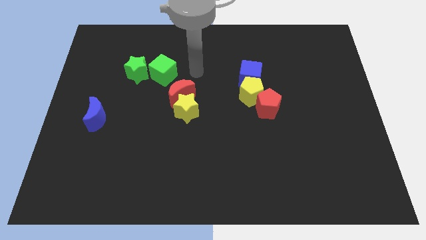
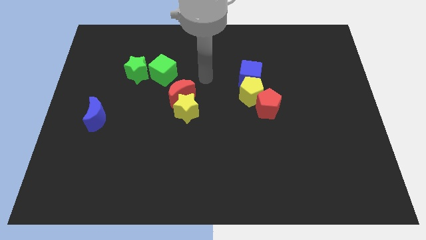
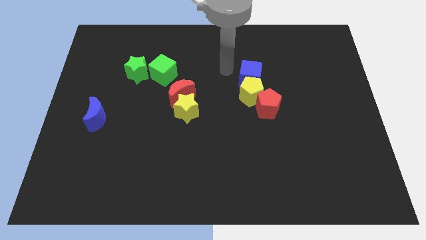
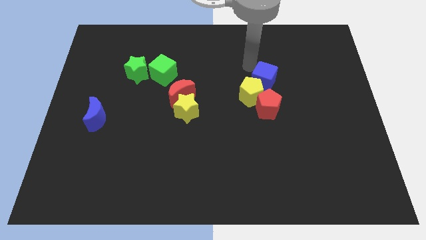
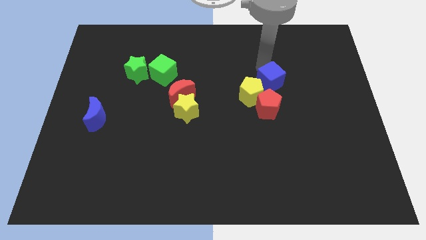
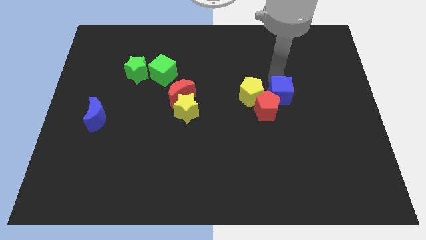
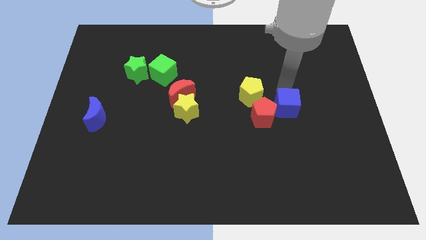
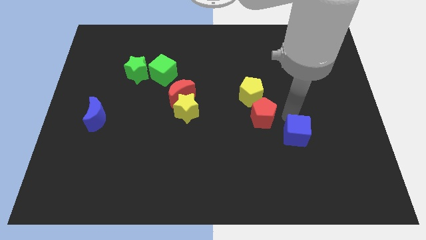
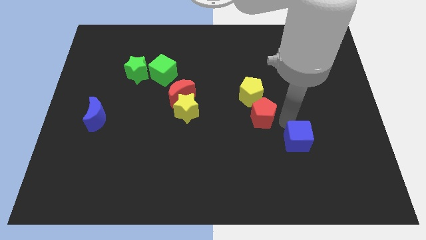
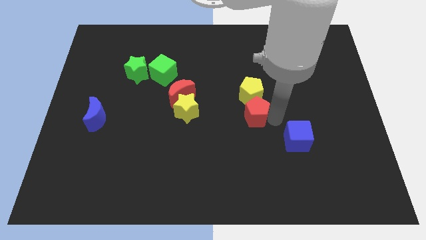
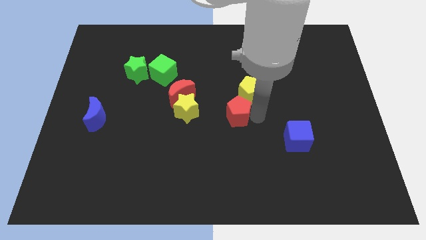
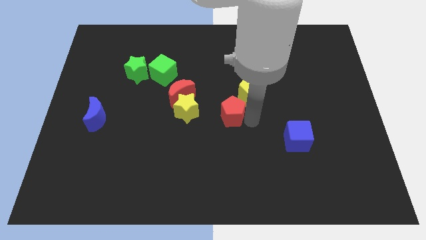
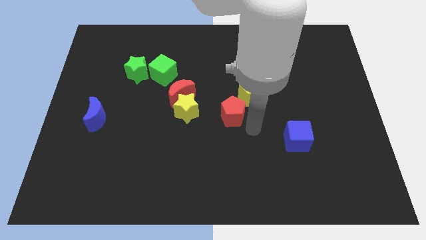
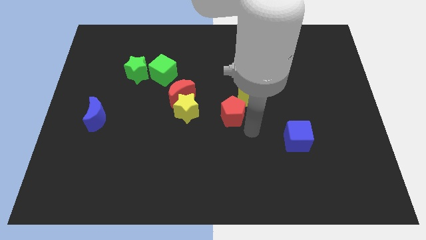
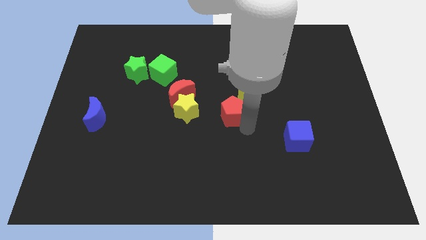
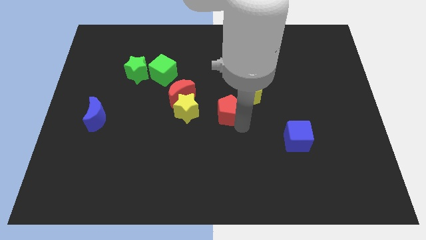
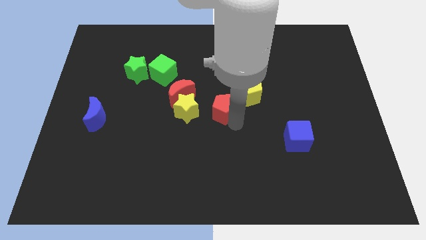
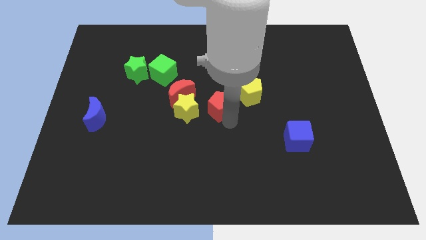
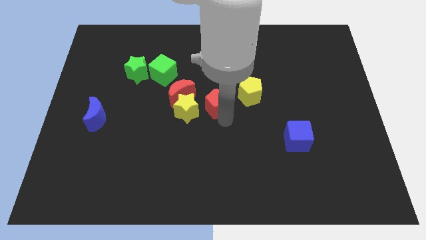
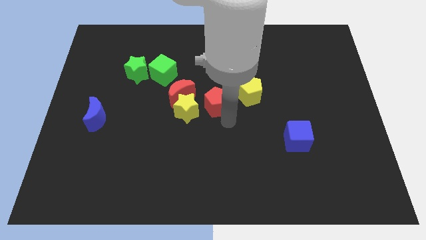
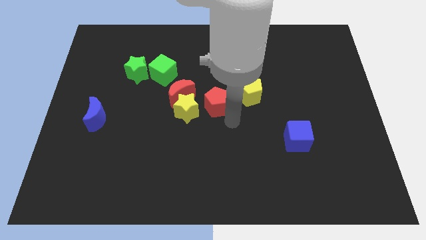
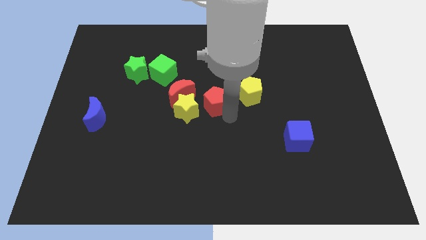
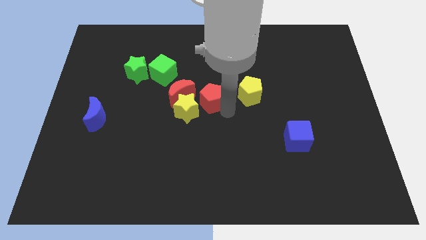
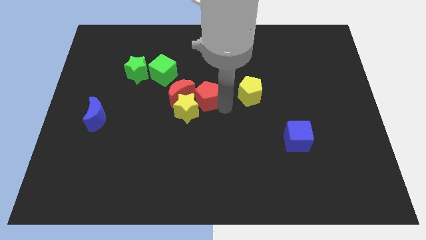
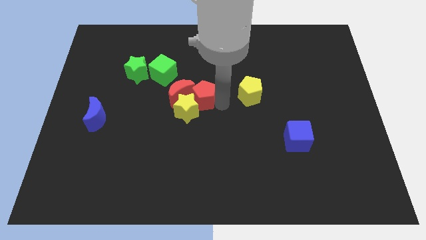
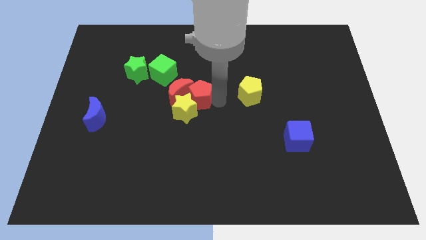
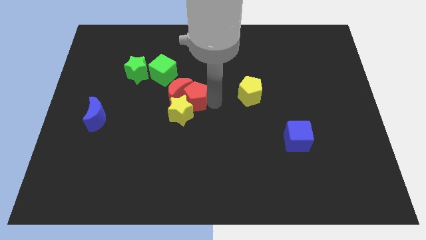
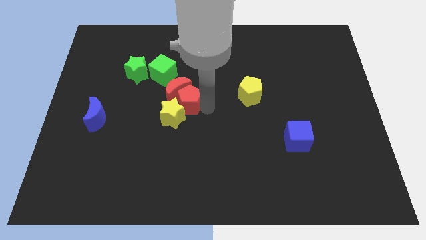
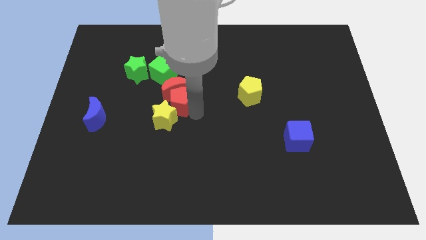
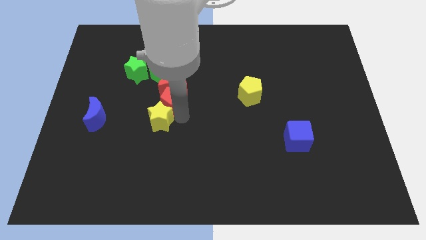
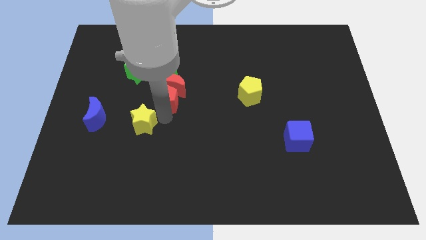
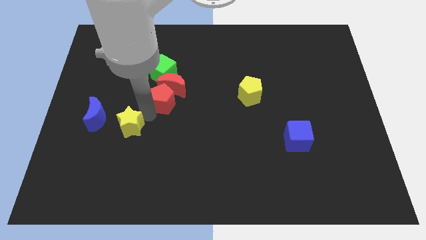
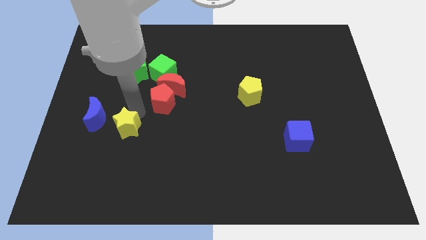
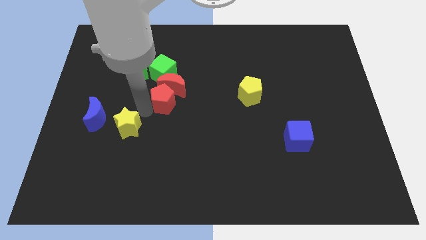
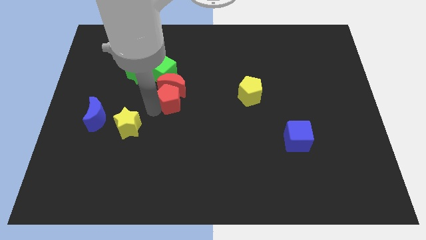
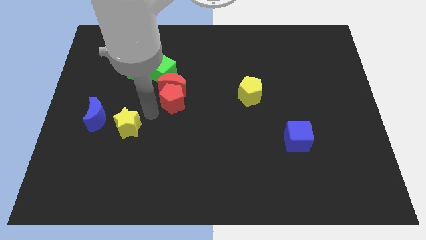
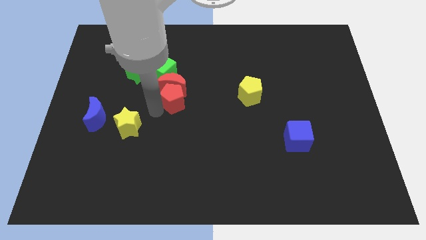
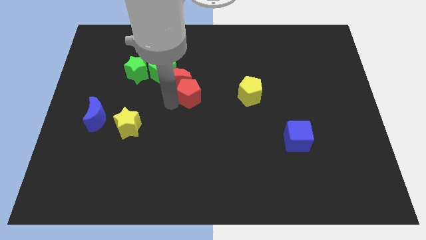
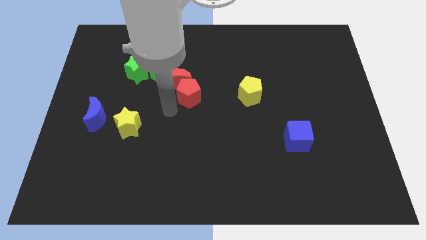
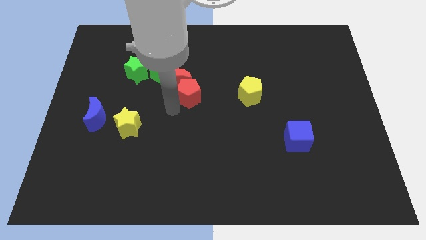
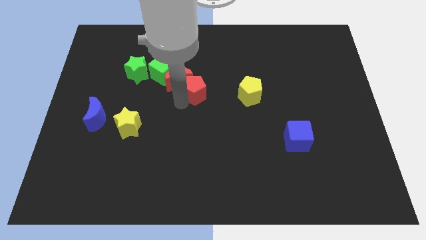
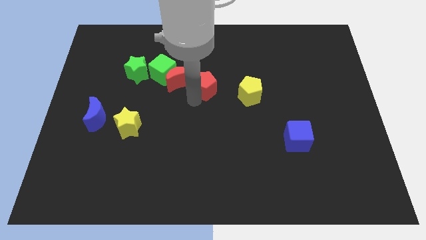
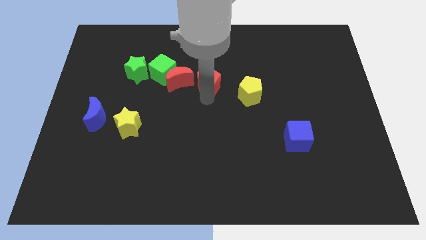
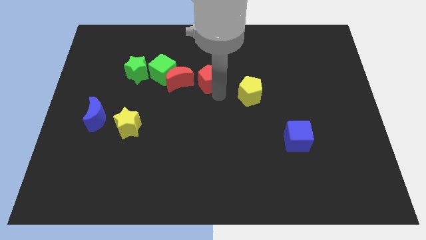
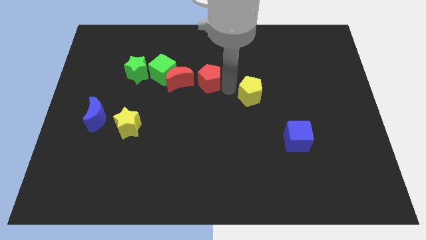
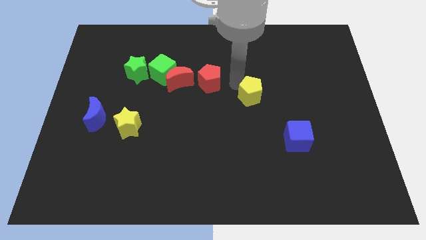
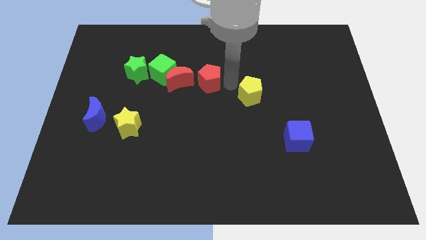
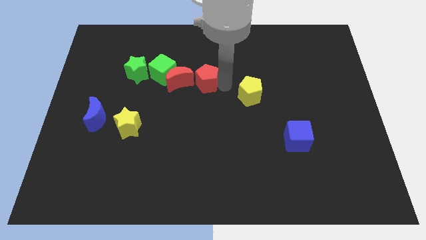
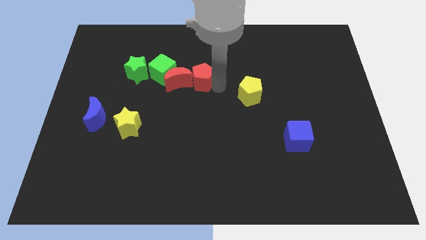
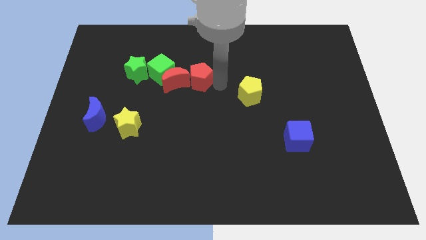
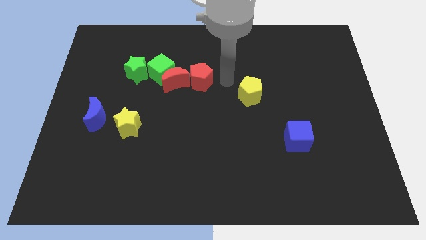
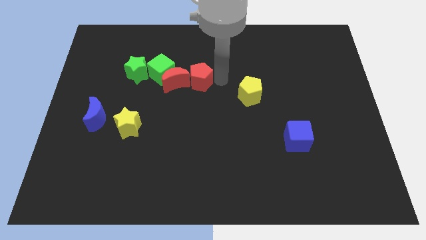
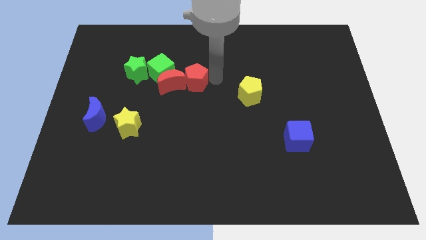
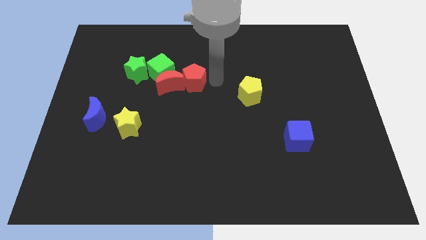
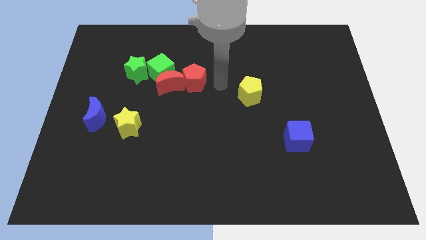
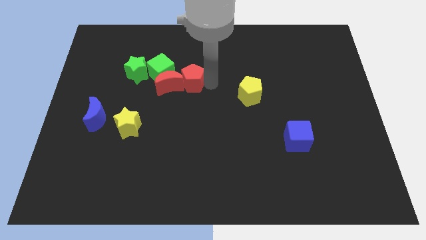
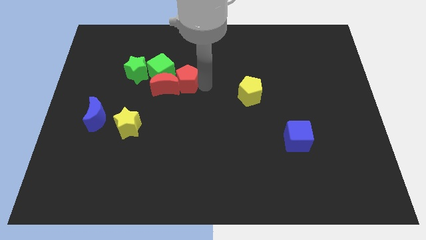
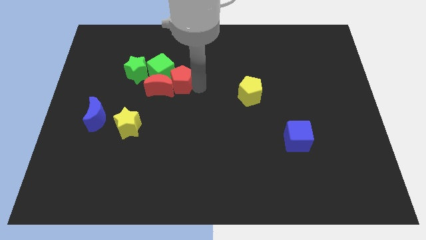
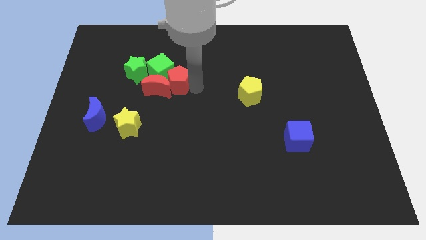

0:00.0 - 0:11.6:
push the red pentagon next to the green cube

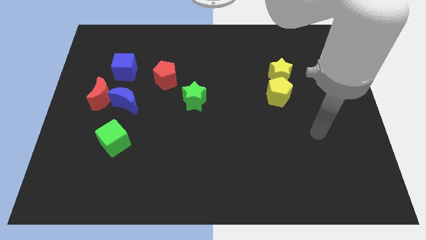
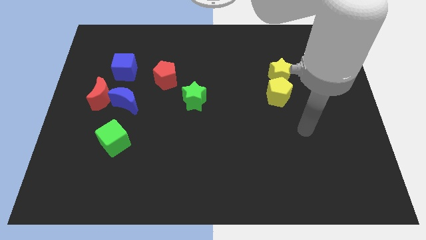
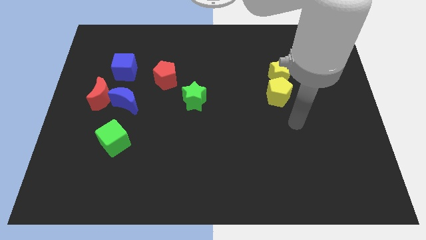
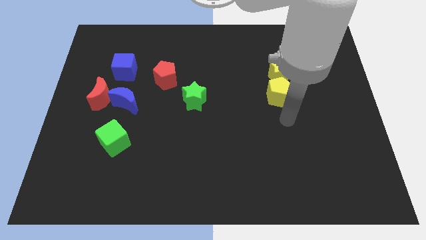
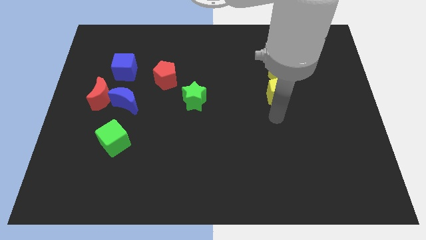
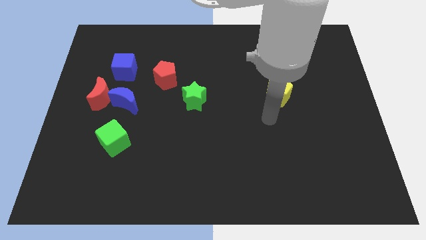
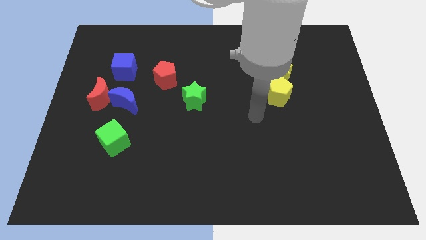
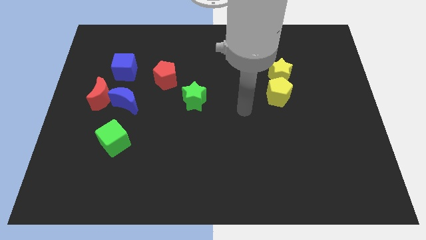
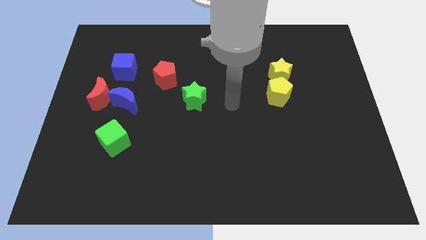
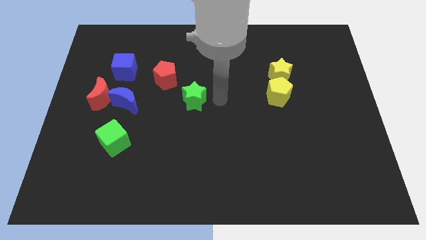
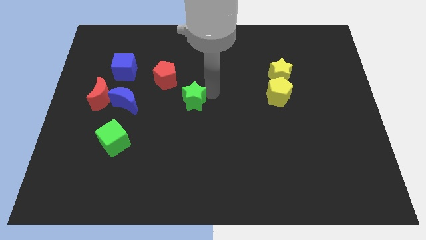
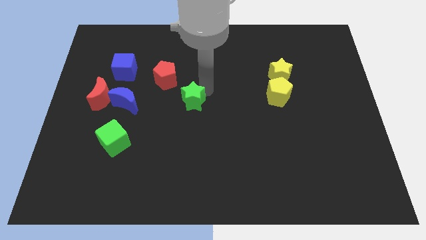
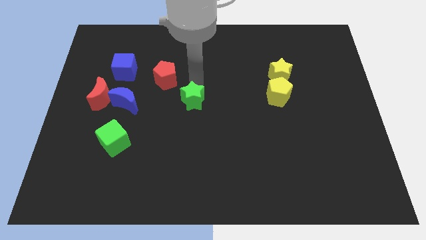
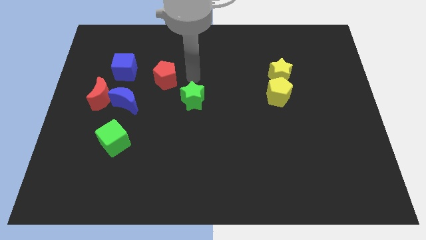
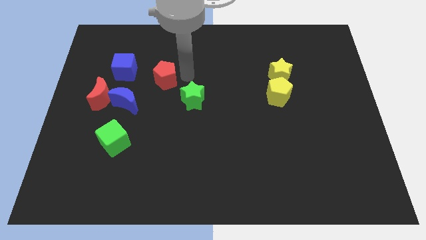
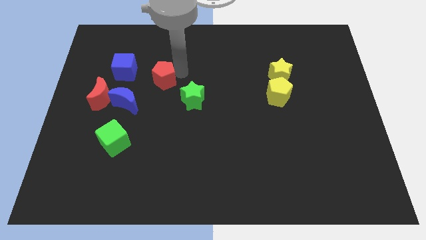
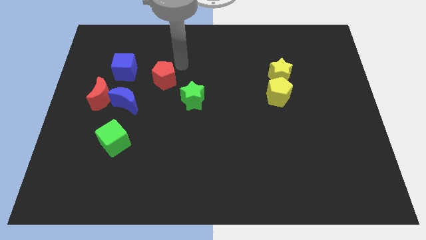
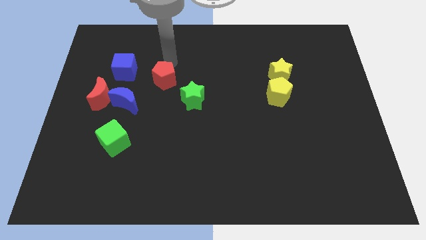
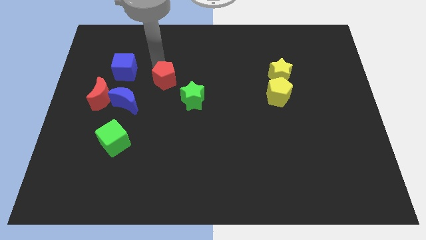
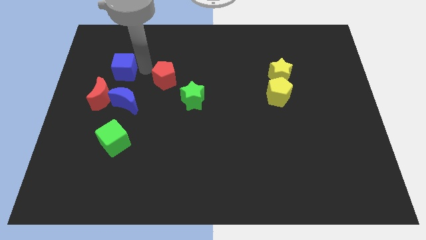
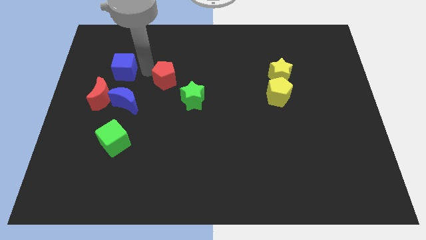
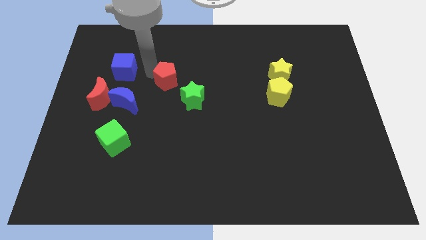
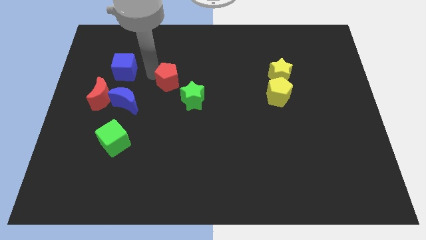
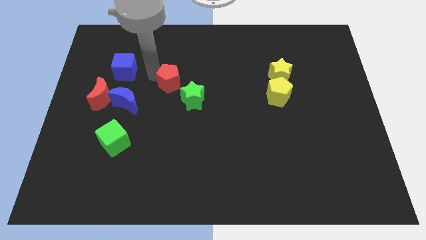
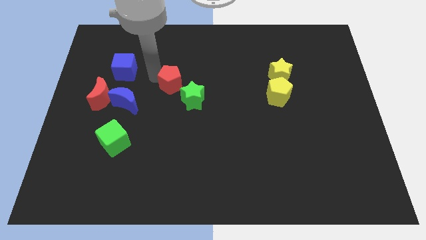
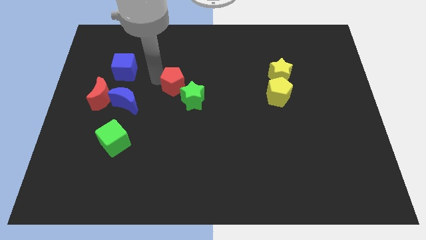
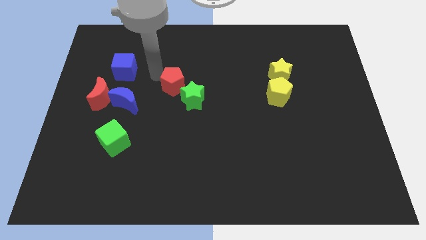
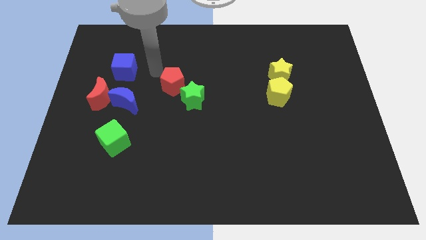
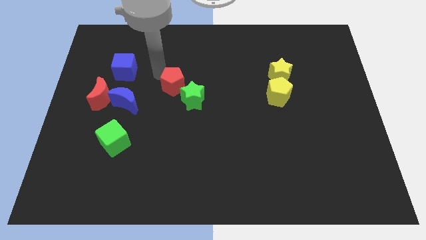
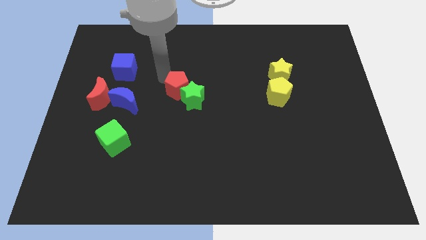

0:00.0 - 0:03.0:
move the red pentagon towards the green star
